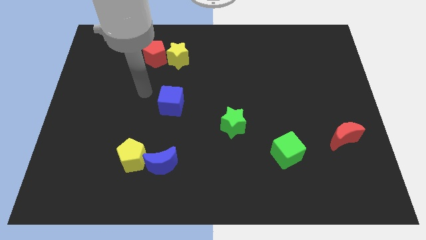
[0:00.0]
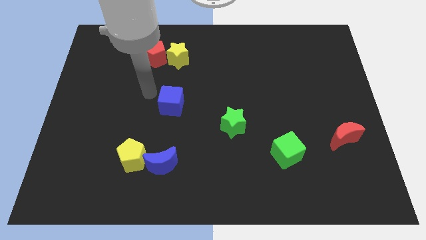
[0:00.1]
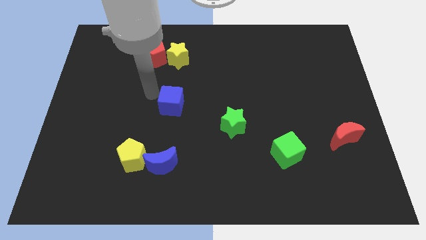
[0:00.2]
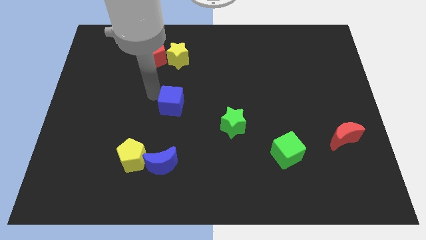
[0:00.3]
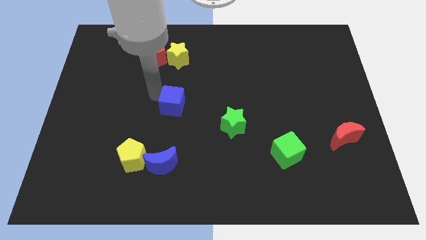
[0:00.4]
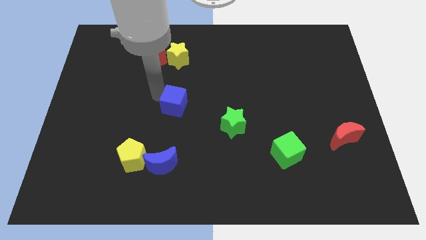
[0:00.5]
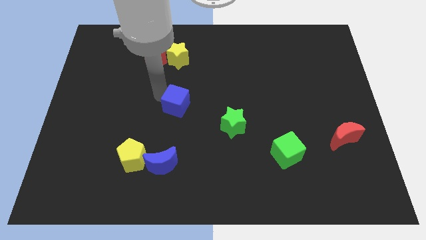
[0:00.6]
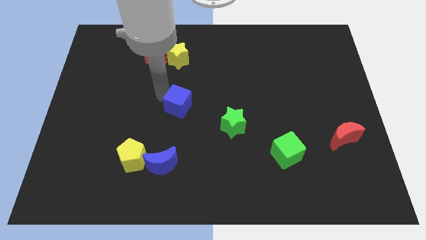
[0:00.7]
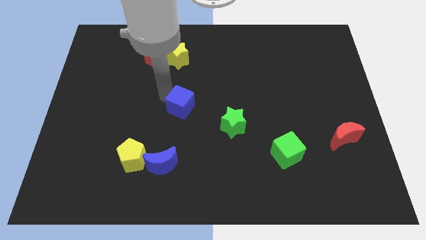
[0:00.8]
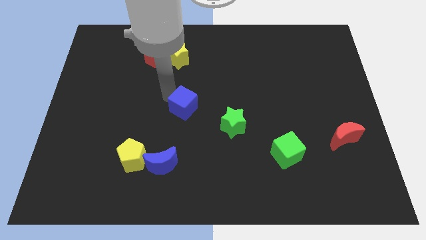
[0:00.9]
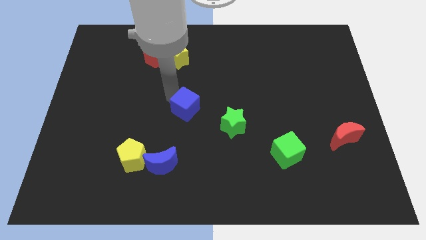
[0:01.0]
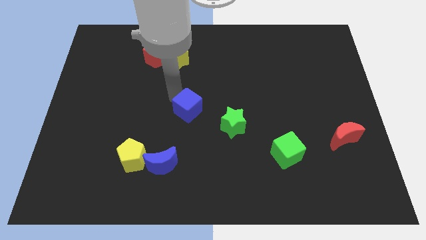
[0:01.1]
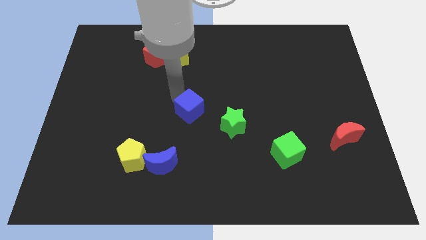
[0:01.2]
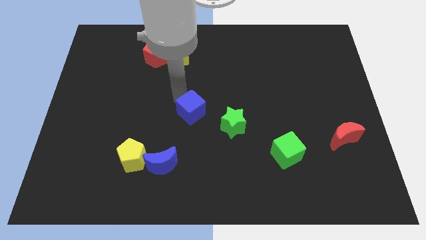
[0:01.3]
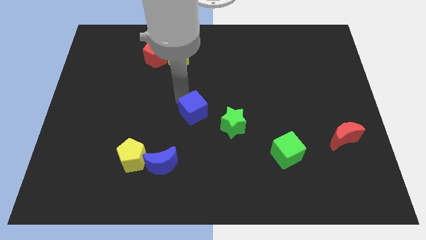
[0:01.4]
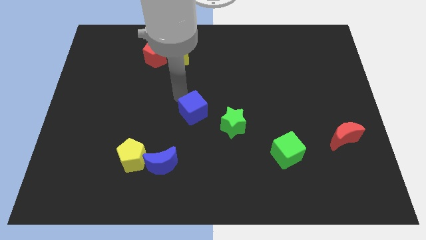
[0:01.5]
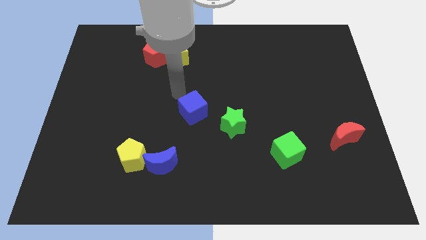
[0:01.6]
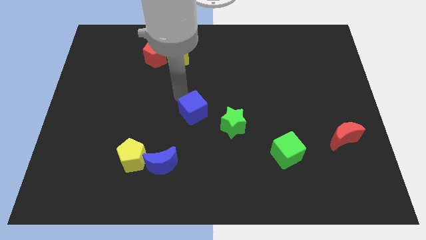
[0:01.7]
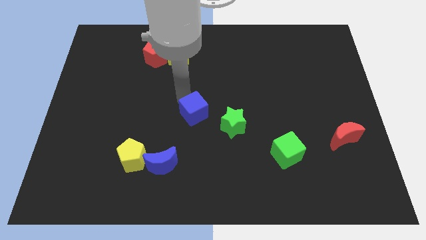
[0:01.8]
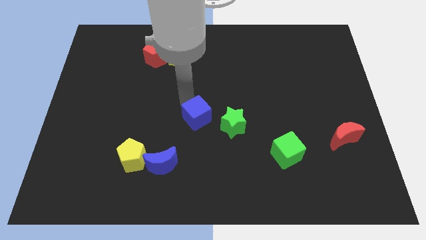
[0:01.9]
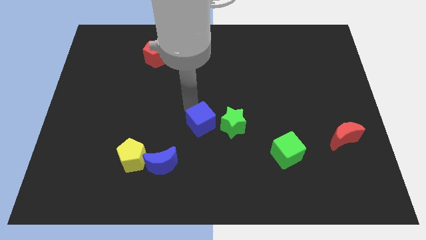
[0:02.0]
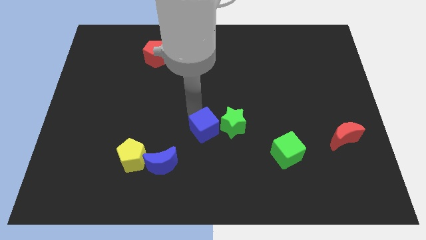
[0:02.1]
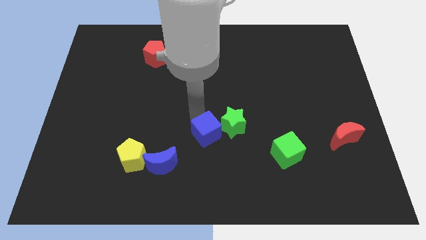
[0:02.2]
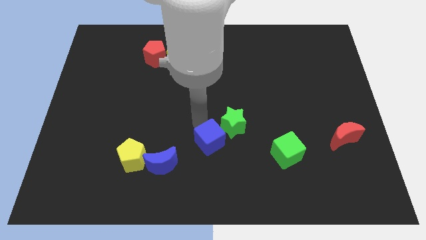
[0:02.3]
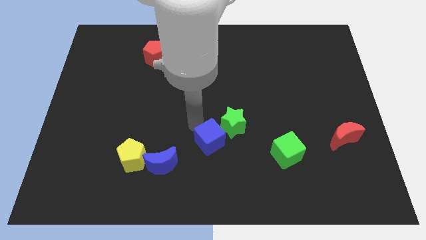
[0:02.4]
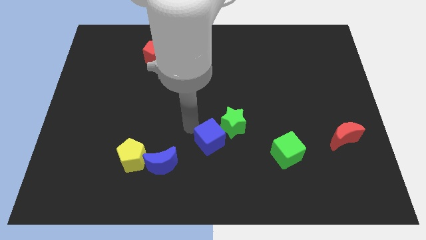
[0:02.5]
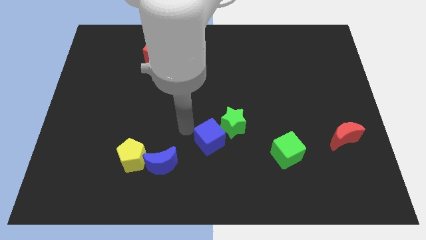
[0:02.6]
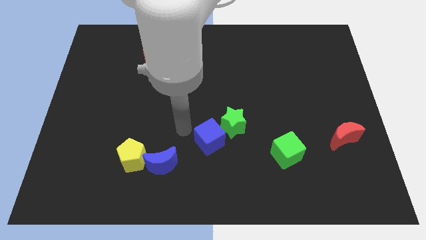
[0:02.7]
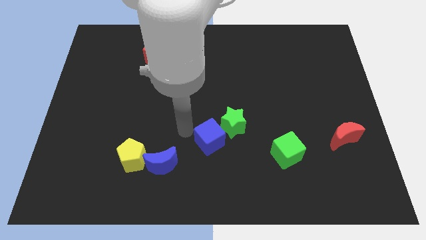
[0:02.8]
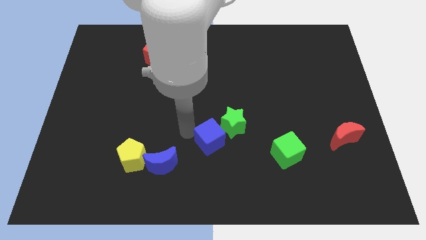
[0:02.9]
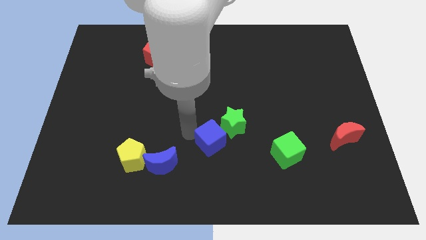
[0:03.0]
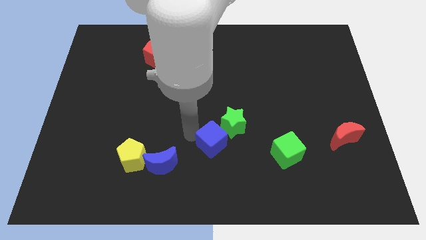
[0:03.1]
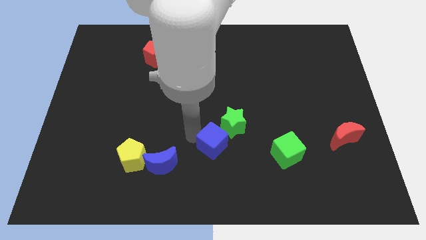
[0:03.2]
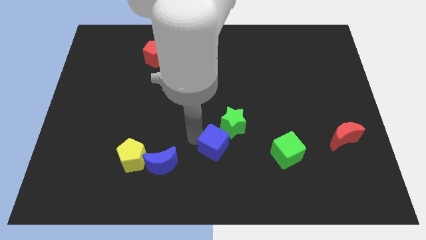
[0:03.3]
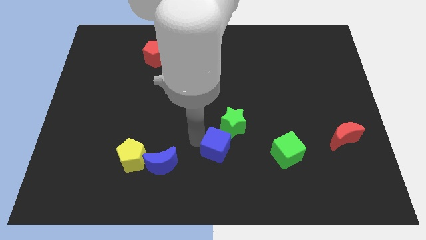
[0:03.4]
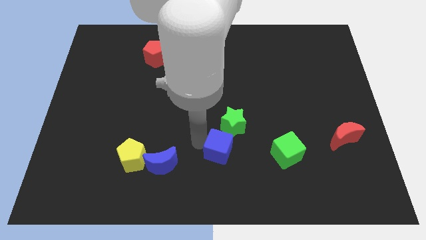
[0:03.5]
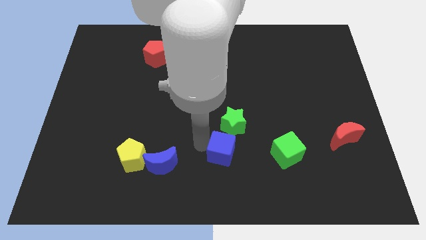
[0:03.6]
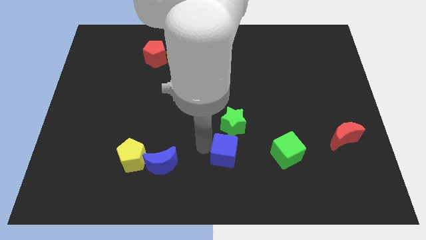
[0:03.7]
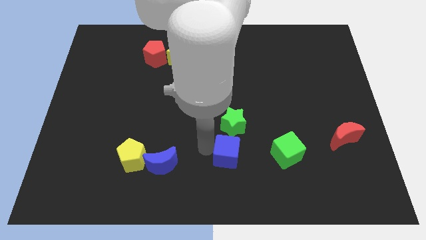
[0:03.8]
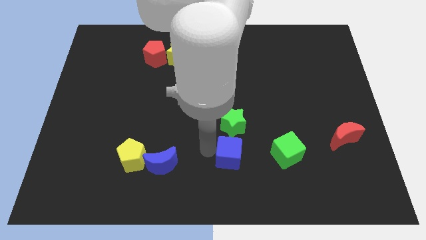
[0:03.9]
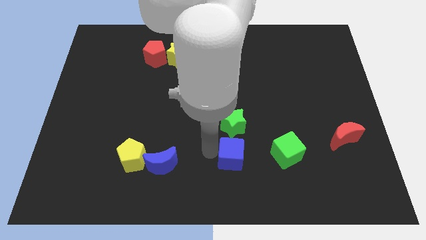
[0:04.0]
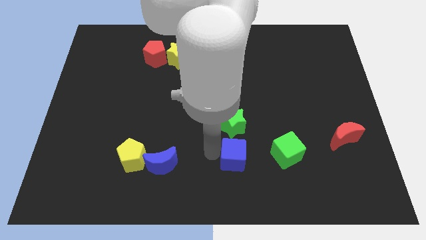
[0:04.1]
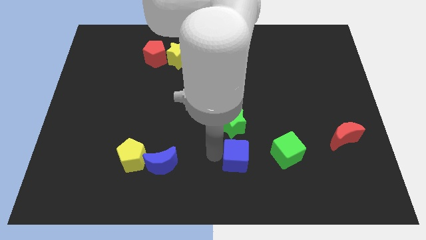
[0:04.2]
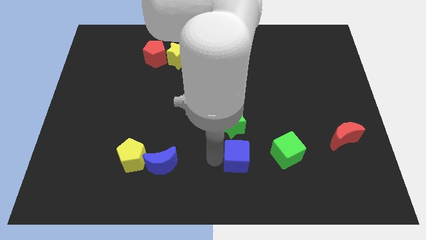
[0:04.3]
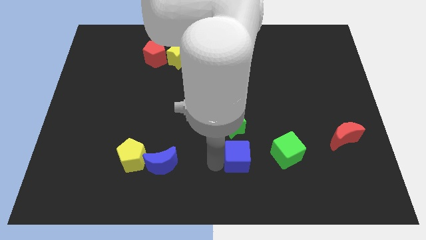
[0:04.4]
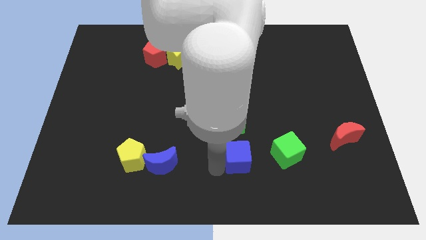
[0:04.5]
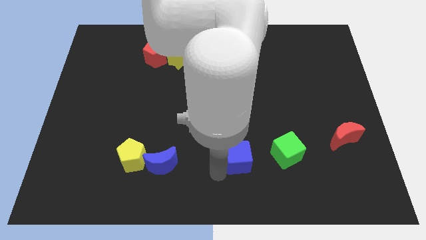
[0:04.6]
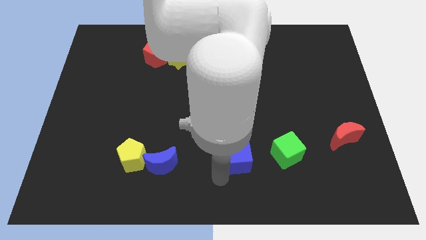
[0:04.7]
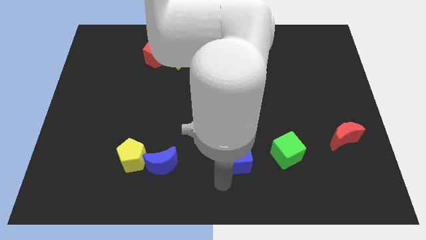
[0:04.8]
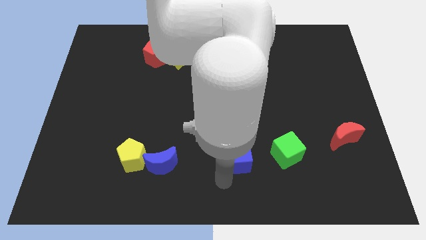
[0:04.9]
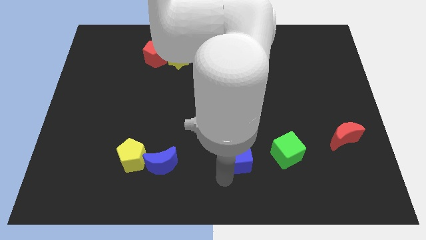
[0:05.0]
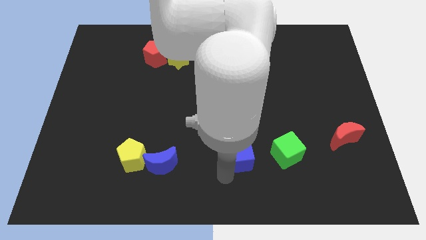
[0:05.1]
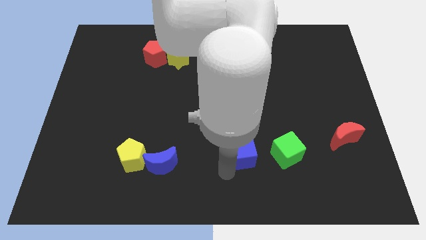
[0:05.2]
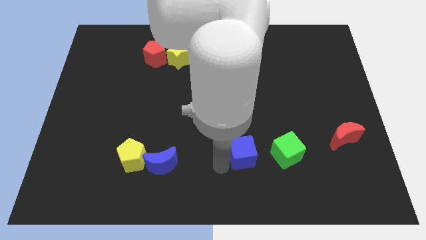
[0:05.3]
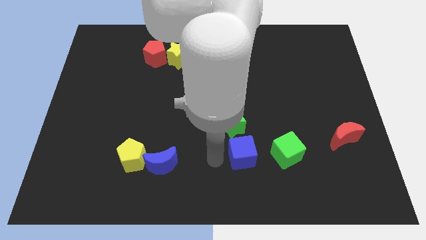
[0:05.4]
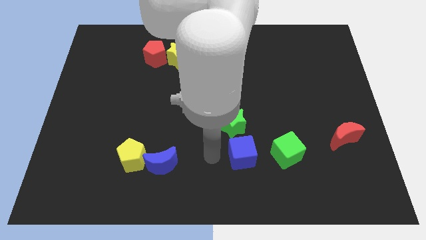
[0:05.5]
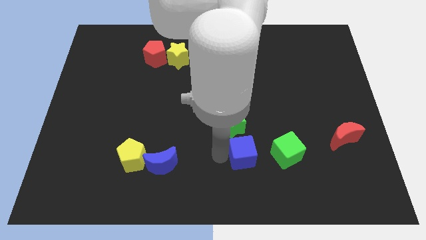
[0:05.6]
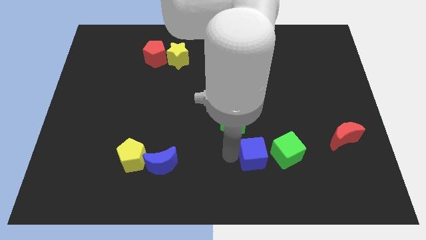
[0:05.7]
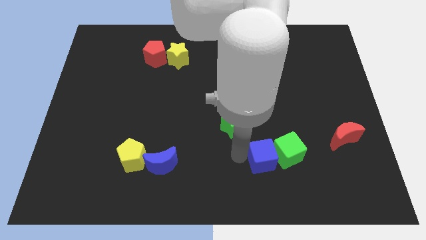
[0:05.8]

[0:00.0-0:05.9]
push the blue cube to the green cube

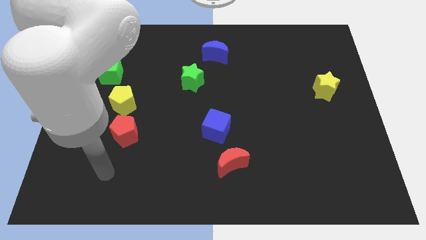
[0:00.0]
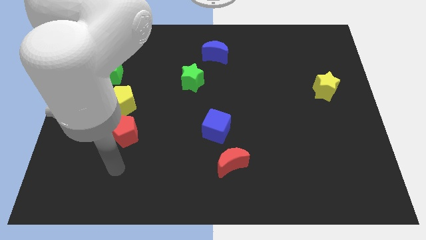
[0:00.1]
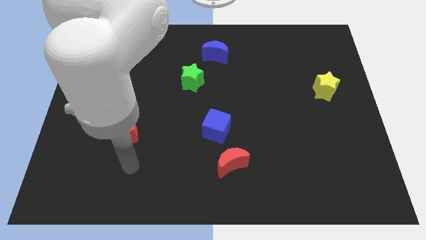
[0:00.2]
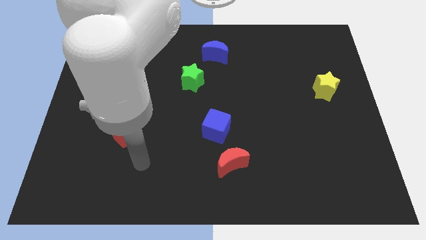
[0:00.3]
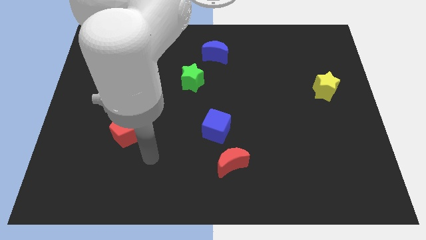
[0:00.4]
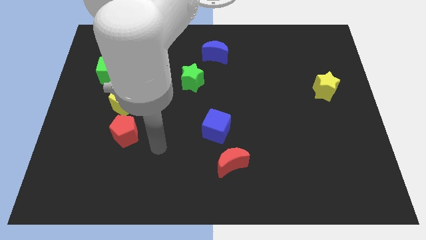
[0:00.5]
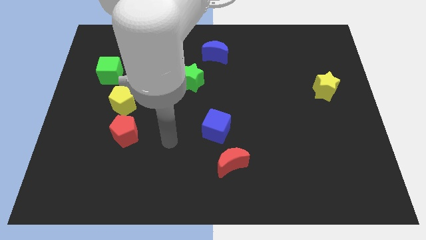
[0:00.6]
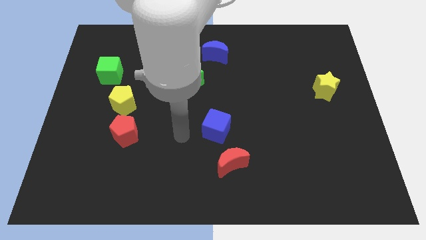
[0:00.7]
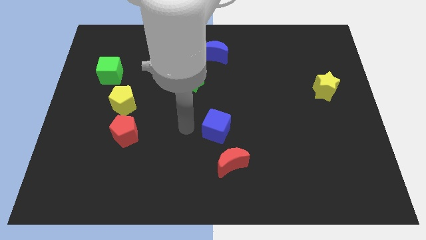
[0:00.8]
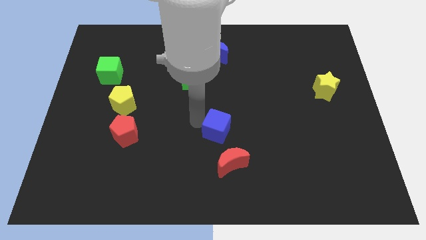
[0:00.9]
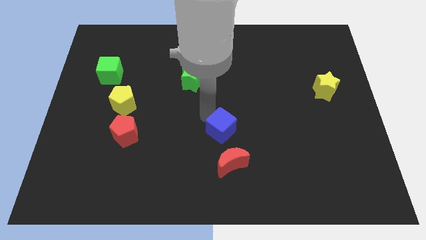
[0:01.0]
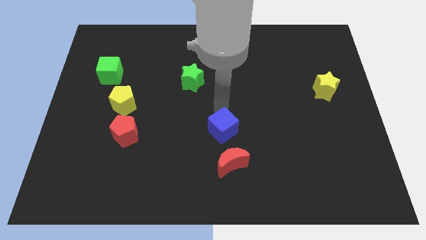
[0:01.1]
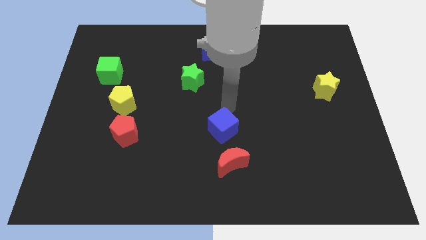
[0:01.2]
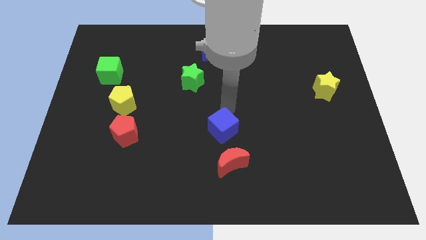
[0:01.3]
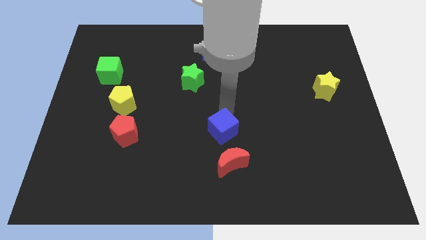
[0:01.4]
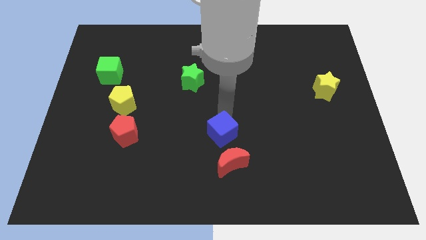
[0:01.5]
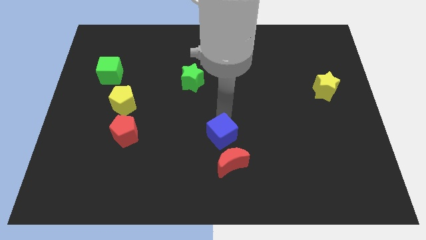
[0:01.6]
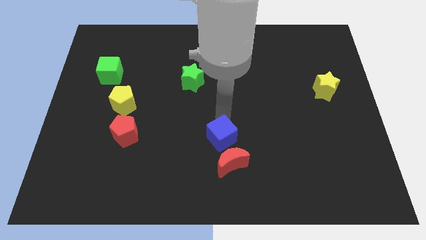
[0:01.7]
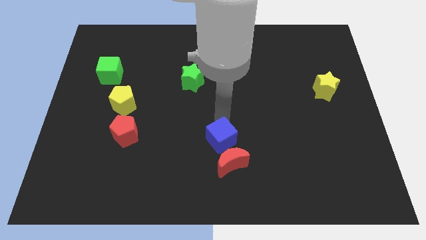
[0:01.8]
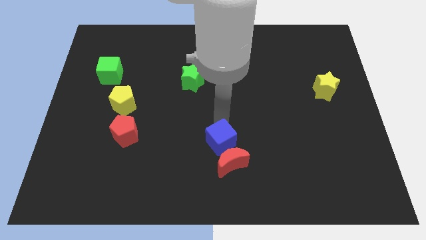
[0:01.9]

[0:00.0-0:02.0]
push the blue cube next to the red moon
